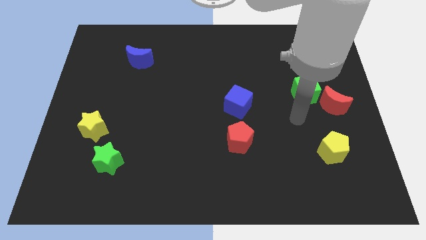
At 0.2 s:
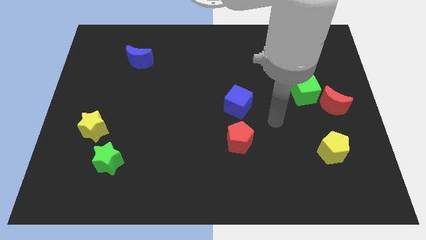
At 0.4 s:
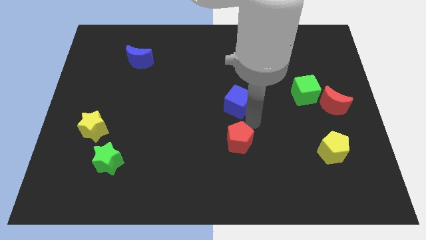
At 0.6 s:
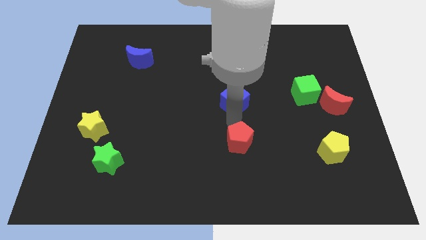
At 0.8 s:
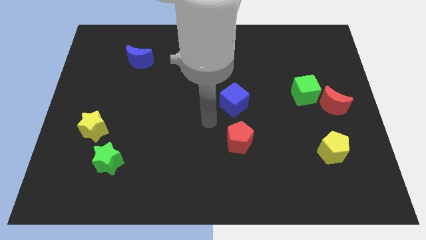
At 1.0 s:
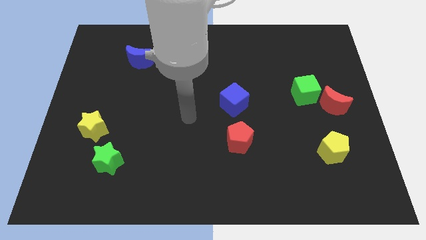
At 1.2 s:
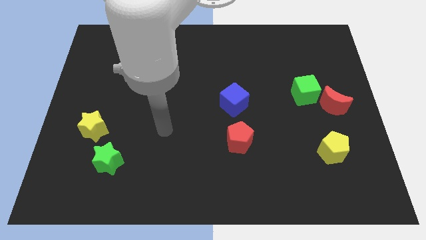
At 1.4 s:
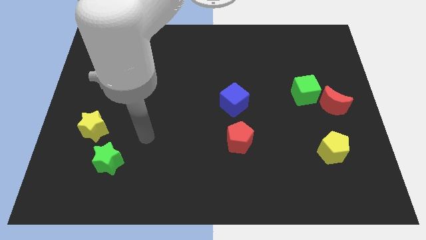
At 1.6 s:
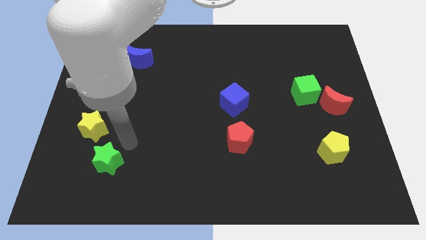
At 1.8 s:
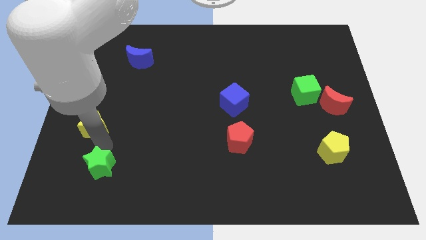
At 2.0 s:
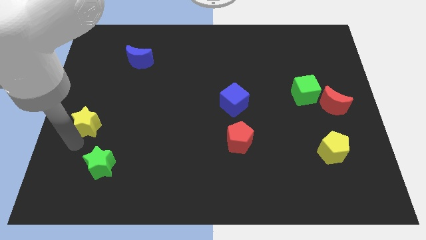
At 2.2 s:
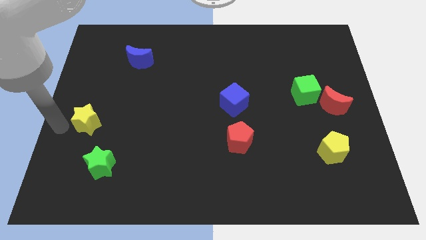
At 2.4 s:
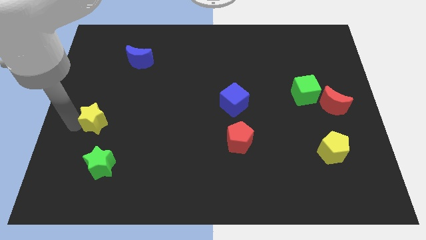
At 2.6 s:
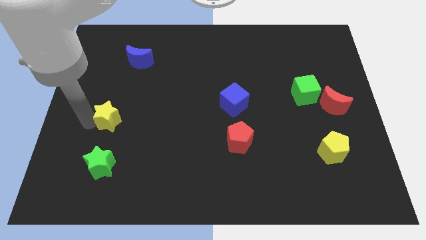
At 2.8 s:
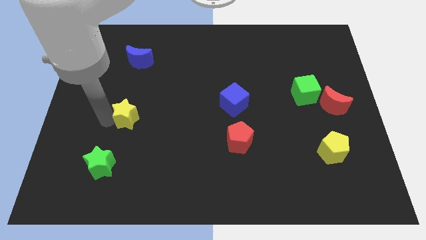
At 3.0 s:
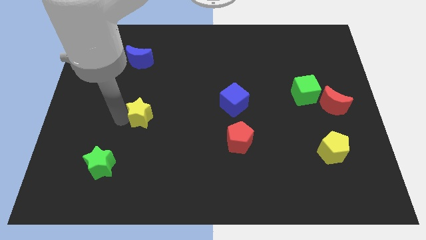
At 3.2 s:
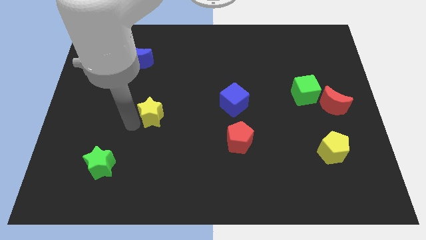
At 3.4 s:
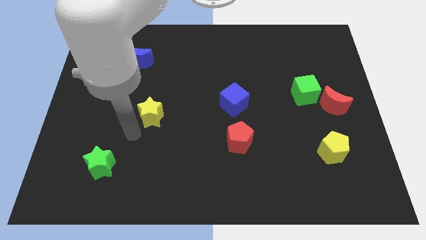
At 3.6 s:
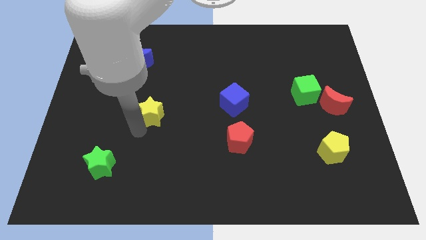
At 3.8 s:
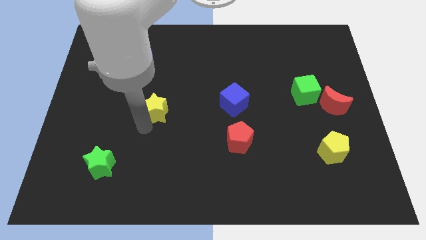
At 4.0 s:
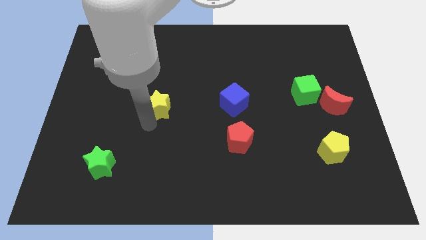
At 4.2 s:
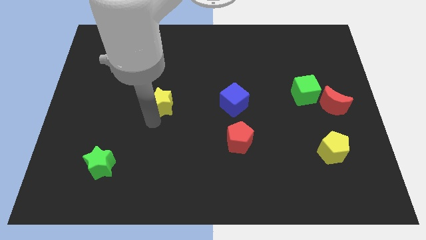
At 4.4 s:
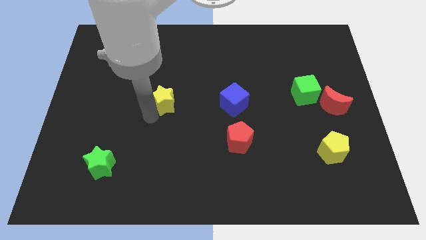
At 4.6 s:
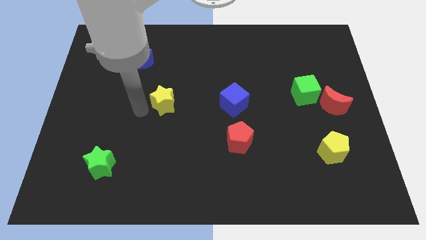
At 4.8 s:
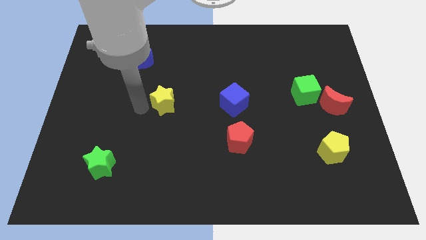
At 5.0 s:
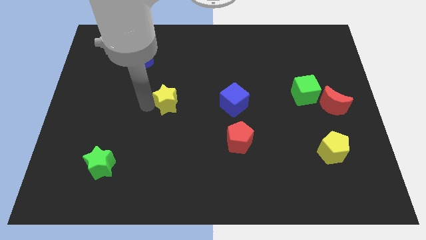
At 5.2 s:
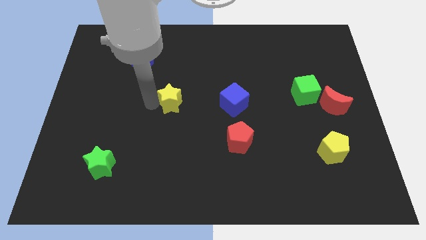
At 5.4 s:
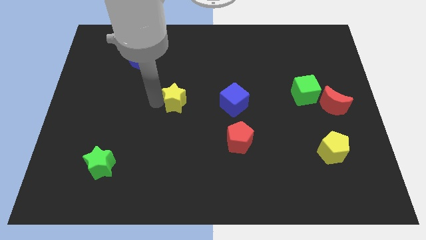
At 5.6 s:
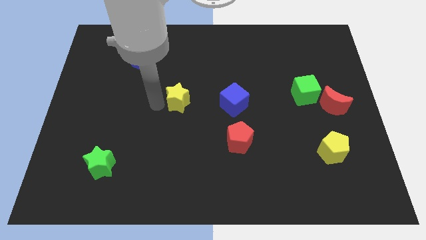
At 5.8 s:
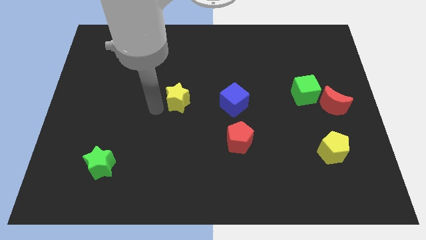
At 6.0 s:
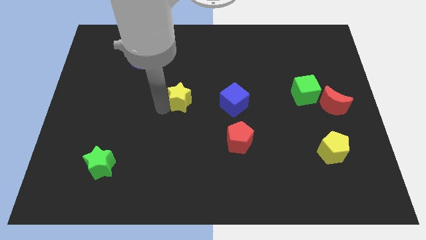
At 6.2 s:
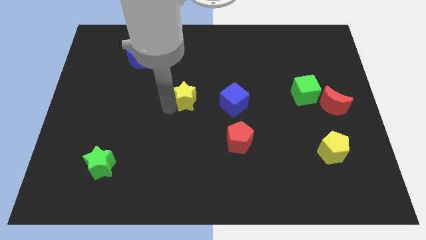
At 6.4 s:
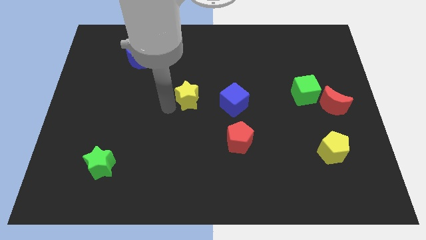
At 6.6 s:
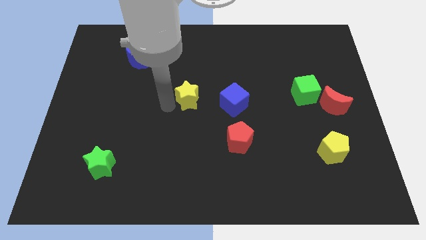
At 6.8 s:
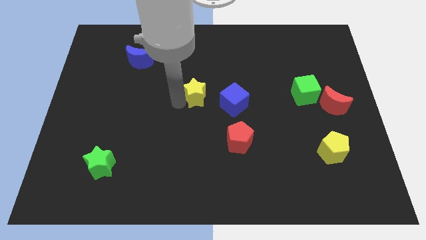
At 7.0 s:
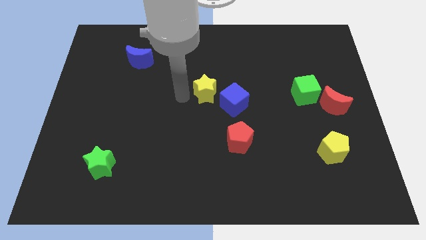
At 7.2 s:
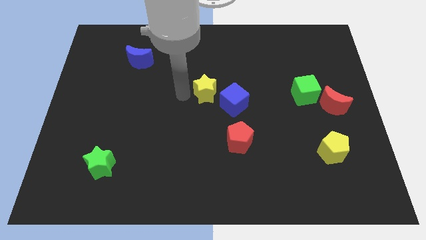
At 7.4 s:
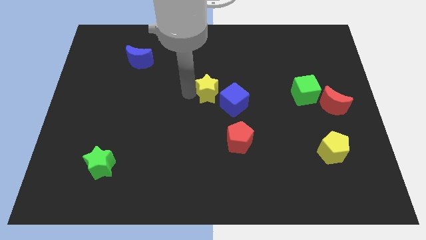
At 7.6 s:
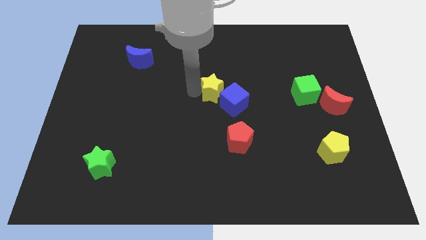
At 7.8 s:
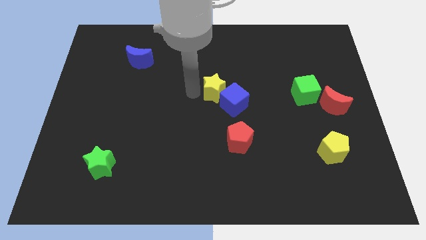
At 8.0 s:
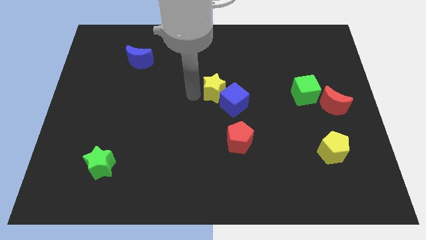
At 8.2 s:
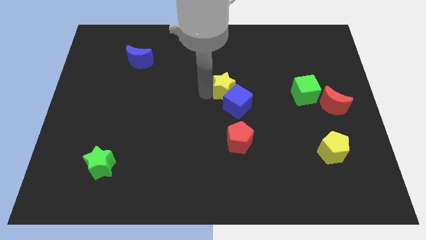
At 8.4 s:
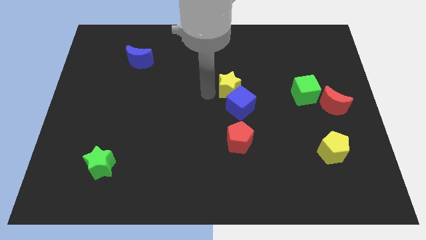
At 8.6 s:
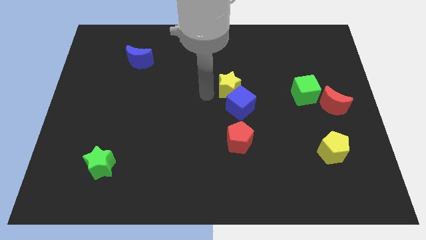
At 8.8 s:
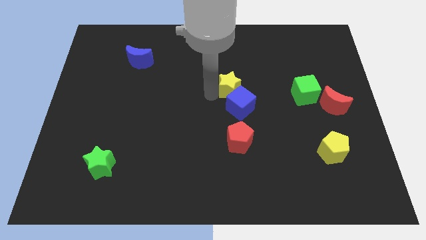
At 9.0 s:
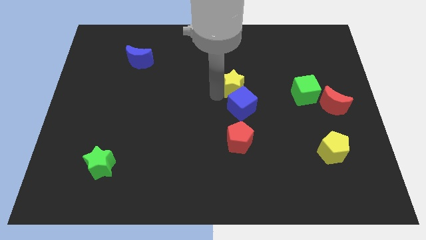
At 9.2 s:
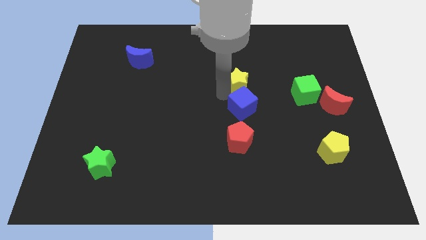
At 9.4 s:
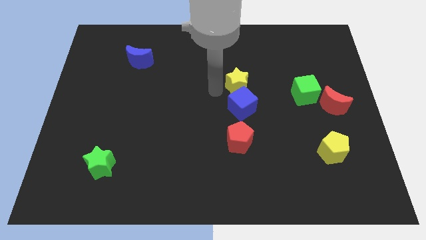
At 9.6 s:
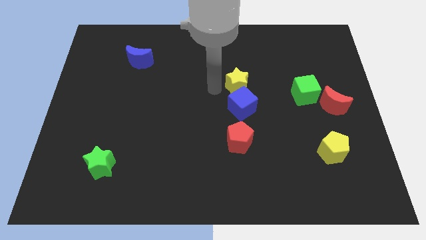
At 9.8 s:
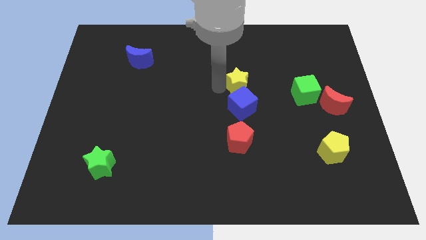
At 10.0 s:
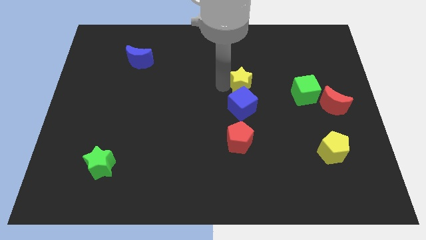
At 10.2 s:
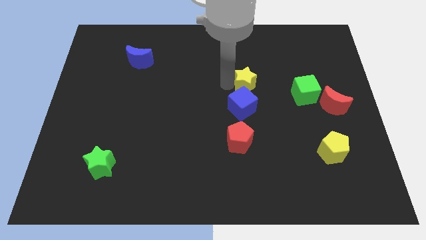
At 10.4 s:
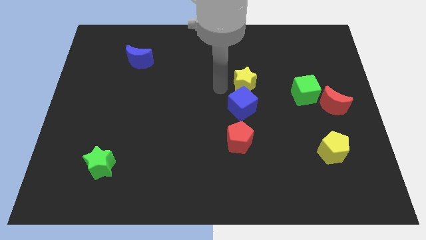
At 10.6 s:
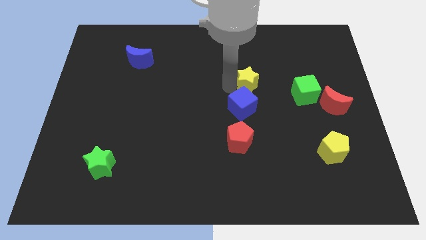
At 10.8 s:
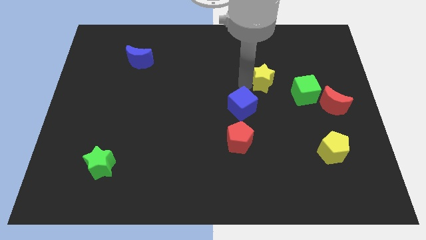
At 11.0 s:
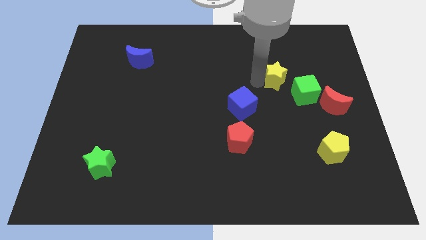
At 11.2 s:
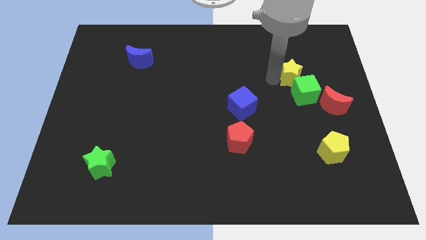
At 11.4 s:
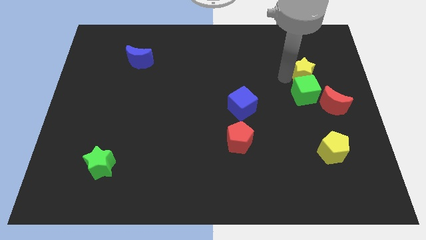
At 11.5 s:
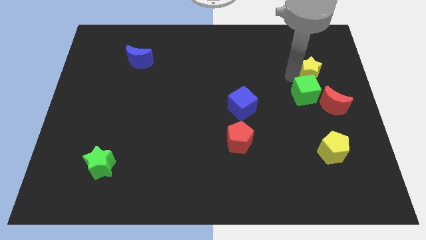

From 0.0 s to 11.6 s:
slide the yellow star above the red moon

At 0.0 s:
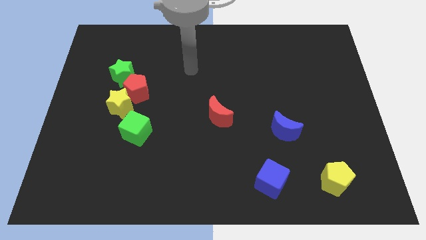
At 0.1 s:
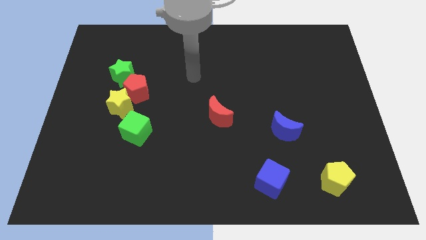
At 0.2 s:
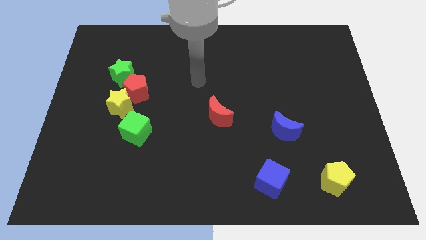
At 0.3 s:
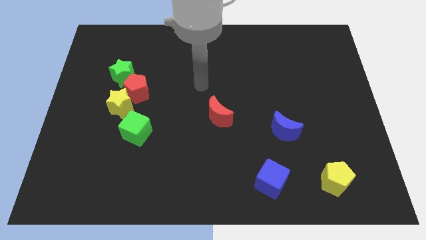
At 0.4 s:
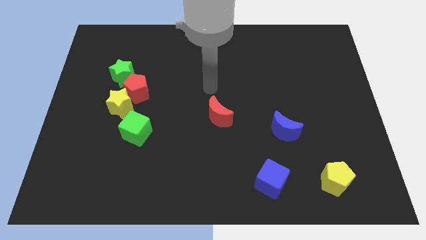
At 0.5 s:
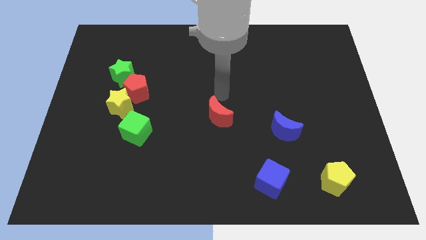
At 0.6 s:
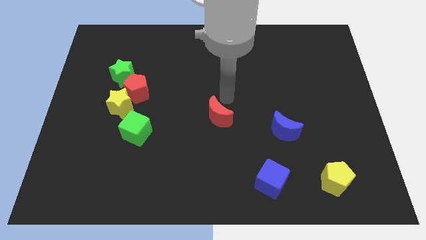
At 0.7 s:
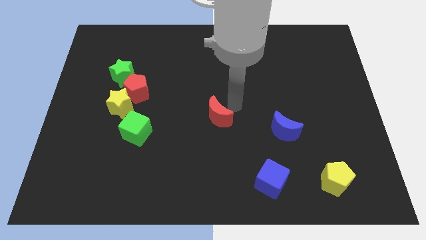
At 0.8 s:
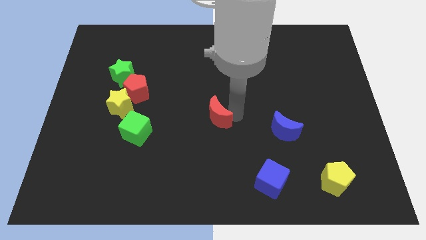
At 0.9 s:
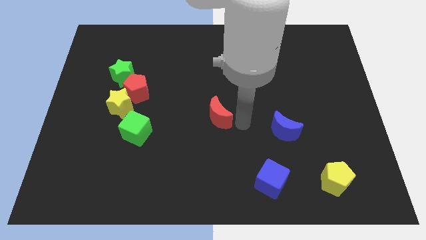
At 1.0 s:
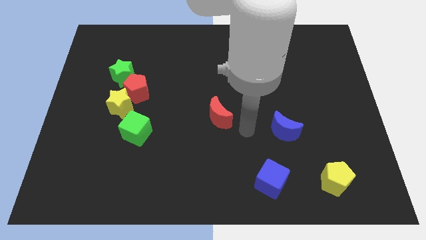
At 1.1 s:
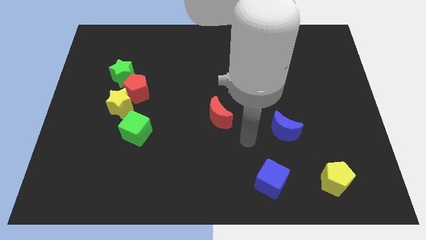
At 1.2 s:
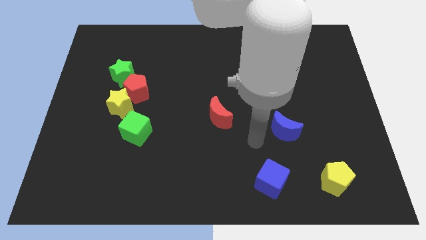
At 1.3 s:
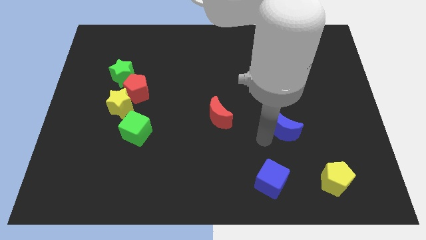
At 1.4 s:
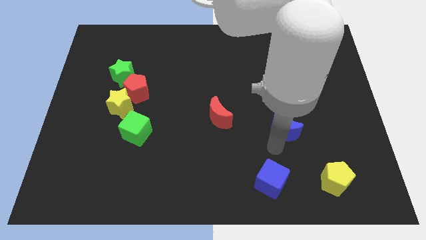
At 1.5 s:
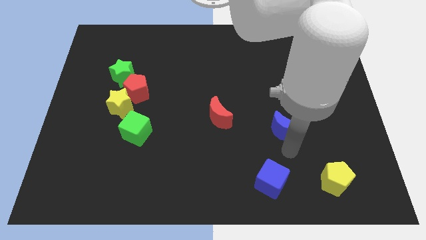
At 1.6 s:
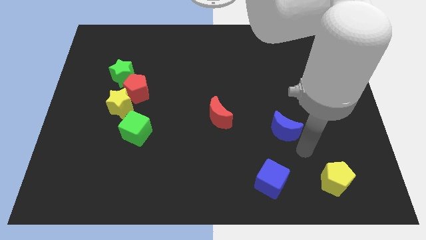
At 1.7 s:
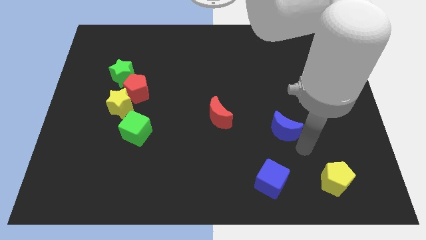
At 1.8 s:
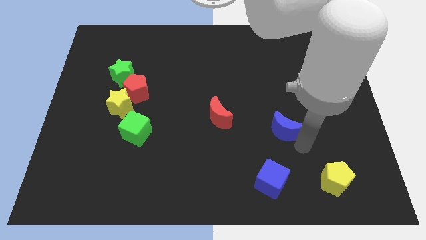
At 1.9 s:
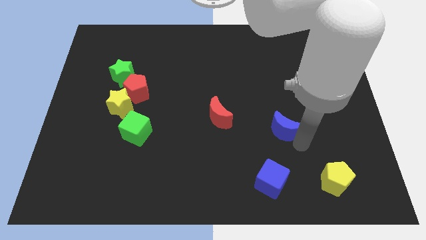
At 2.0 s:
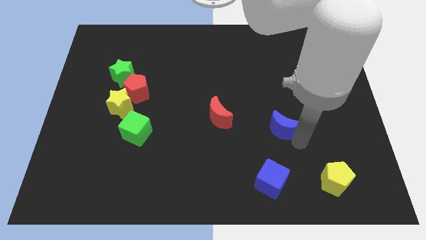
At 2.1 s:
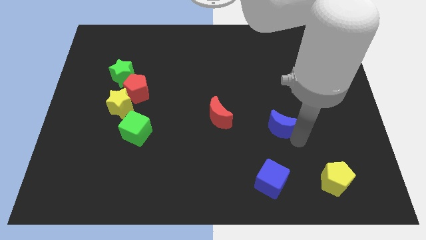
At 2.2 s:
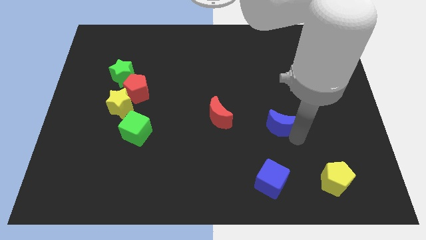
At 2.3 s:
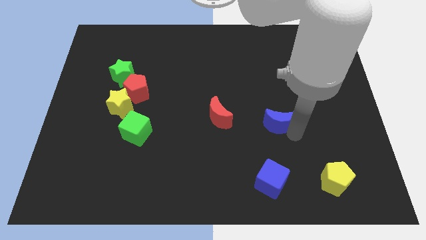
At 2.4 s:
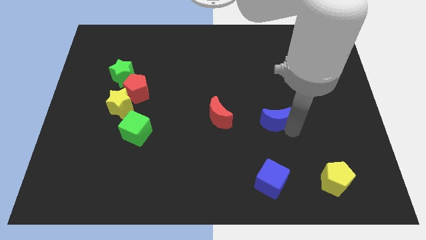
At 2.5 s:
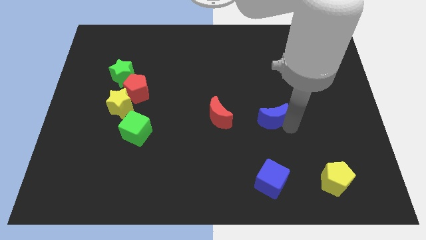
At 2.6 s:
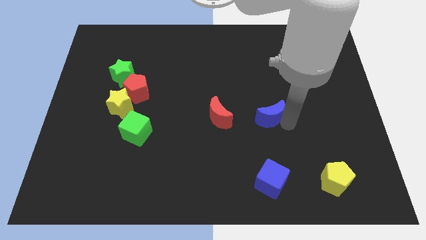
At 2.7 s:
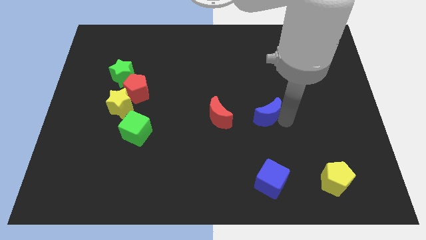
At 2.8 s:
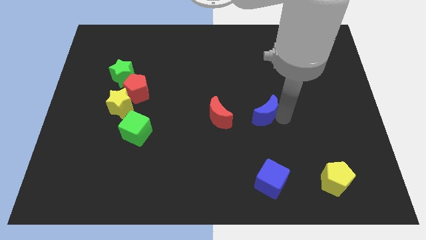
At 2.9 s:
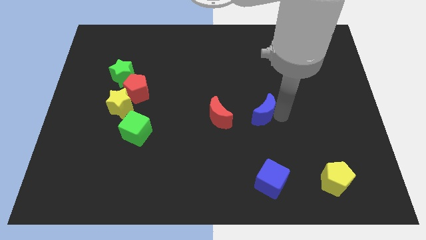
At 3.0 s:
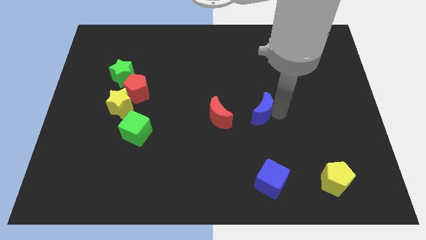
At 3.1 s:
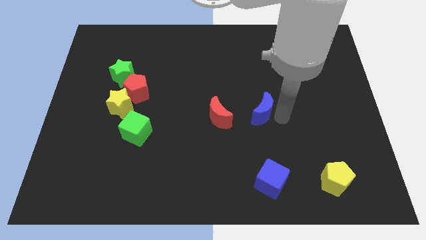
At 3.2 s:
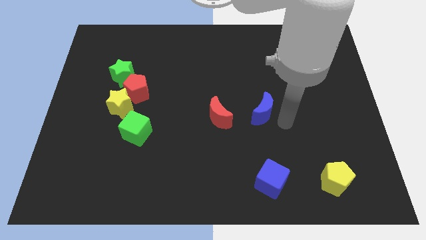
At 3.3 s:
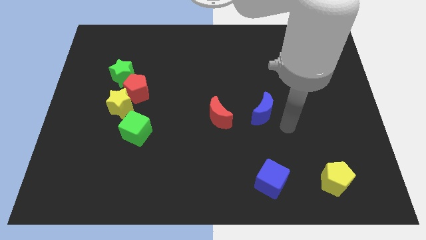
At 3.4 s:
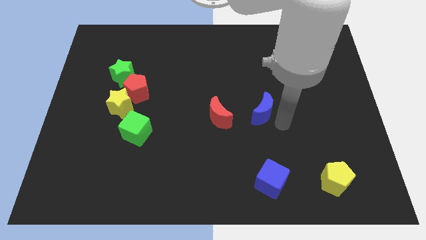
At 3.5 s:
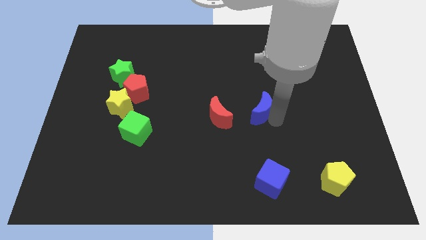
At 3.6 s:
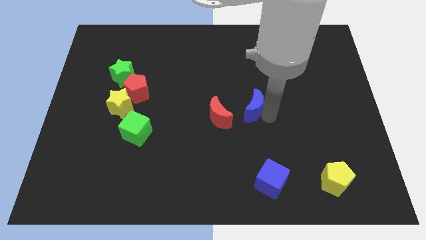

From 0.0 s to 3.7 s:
slide the blue moon diagonally up and to the right of the red moon
